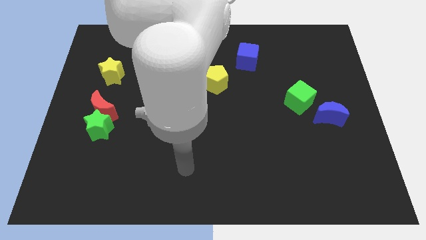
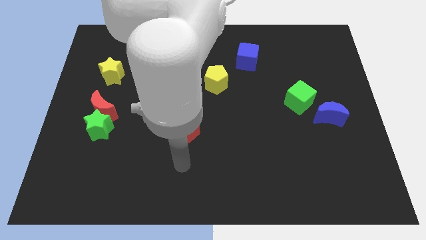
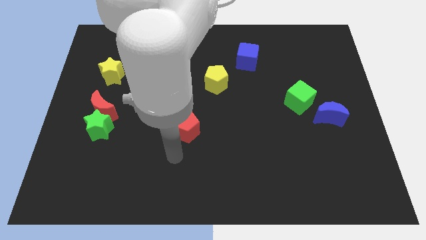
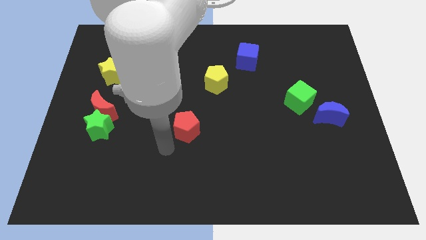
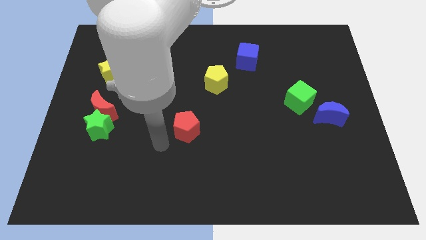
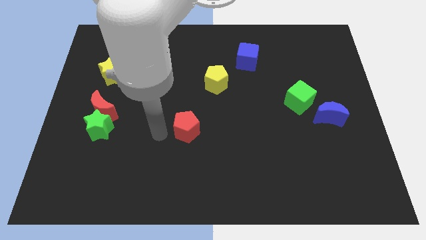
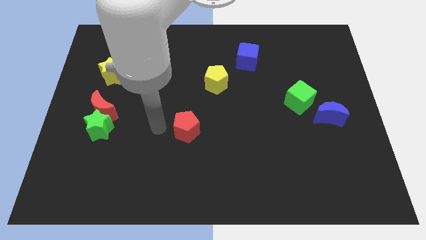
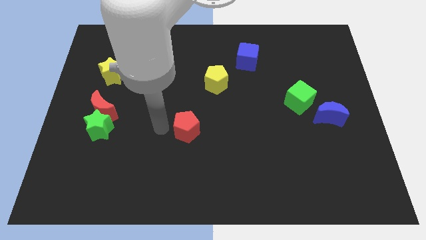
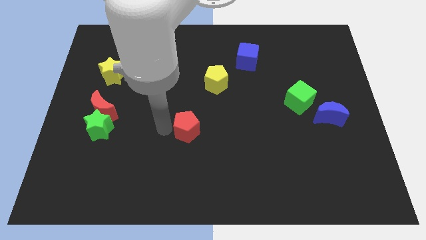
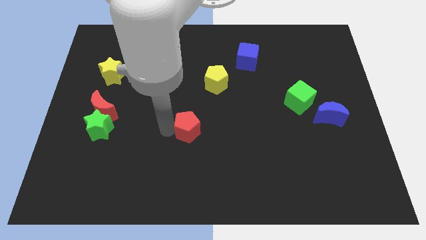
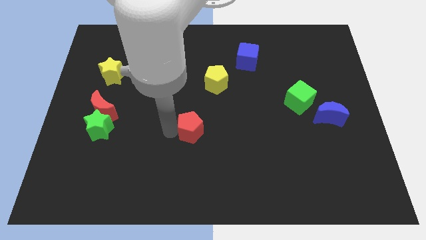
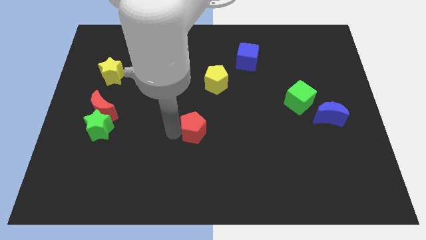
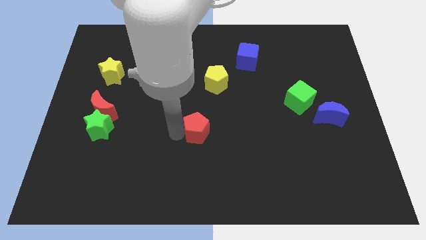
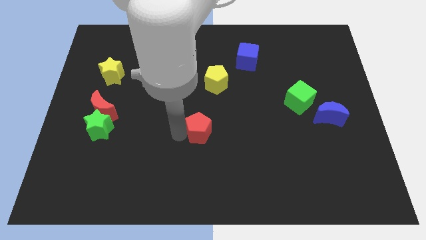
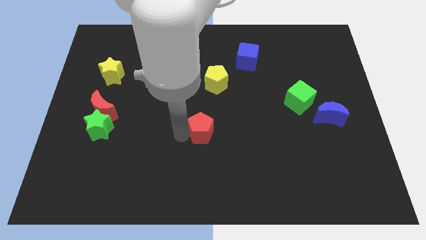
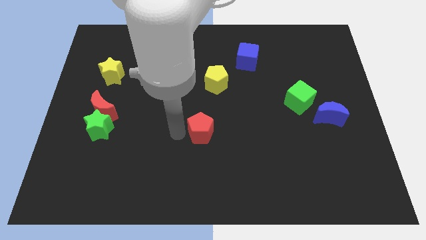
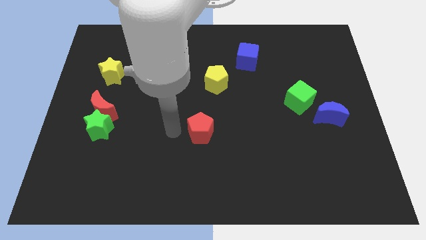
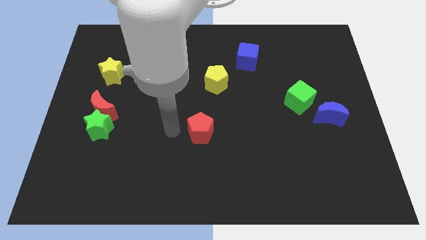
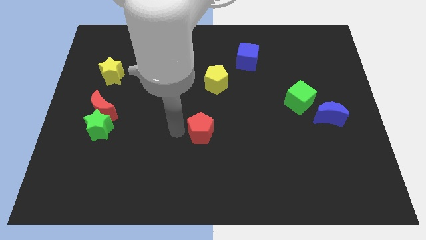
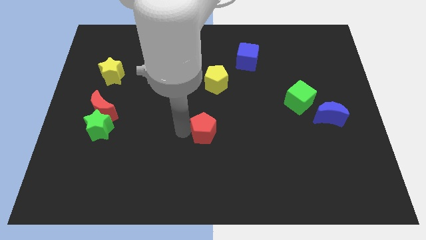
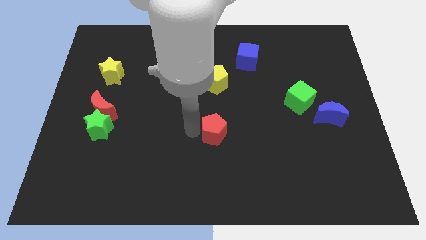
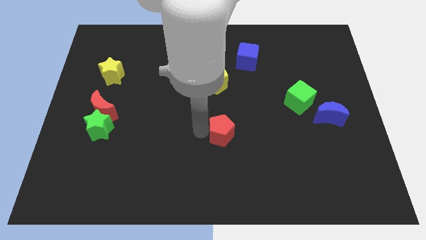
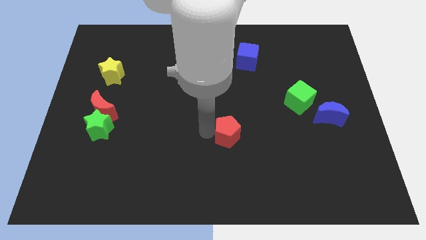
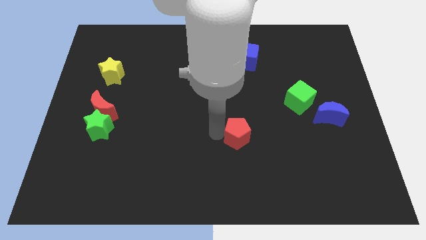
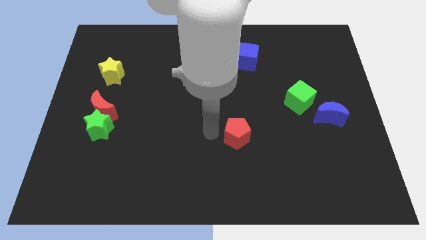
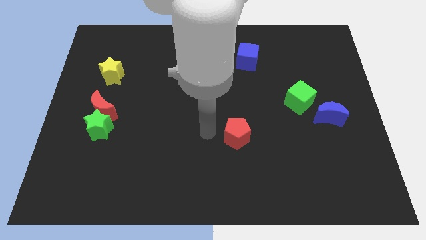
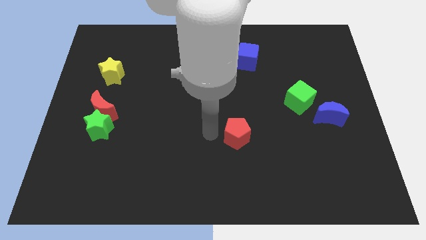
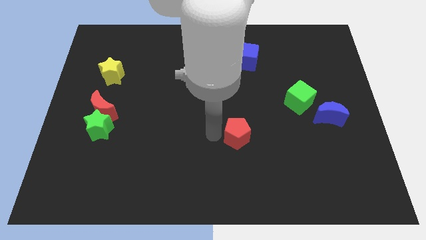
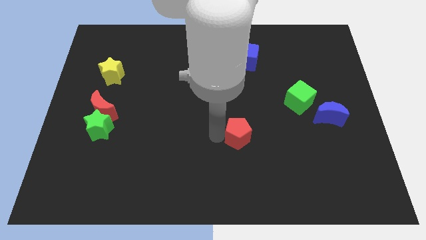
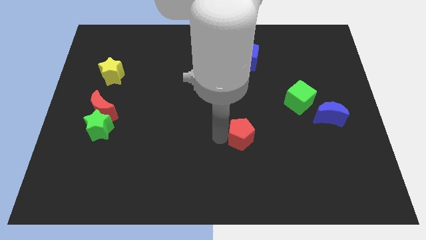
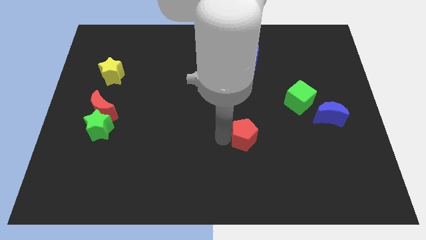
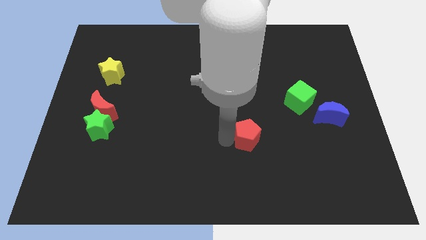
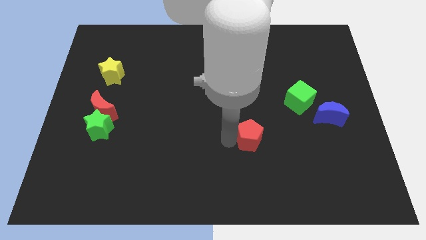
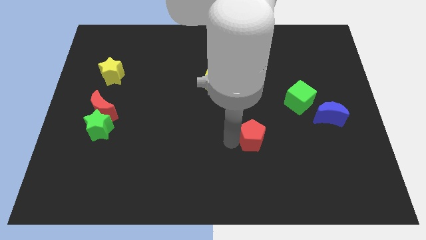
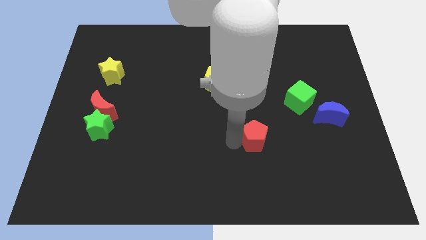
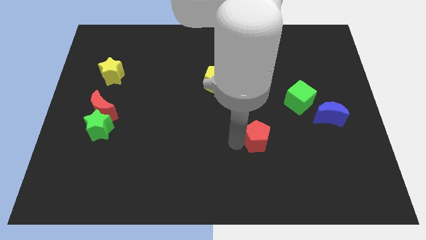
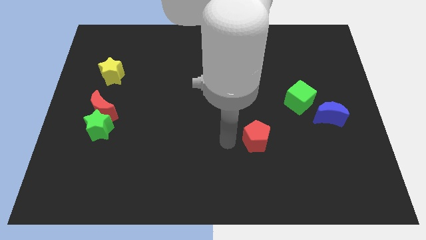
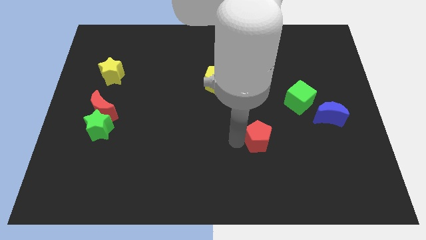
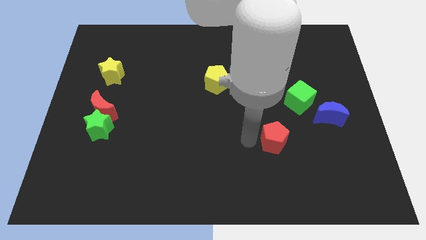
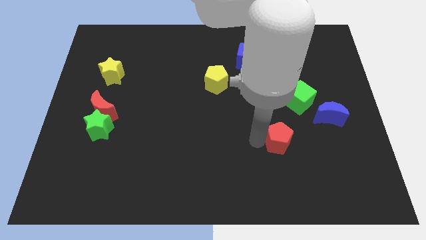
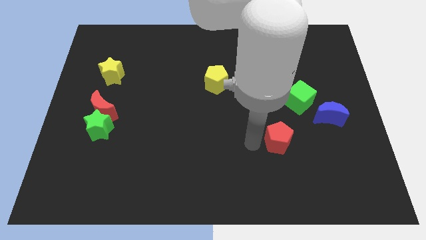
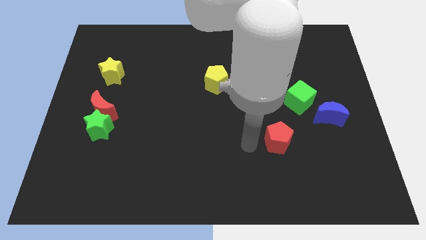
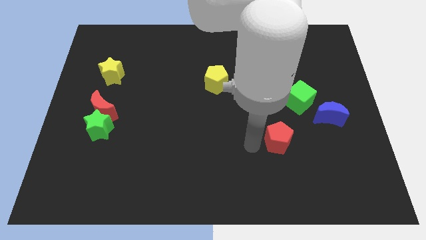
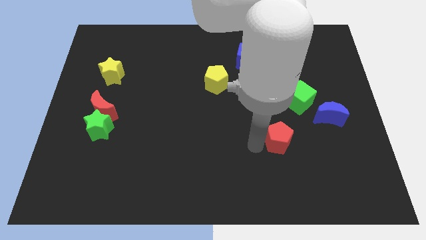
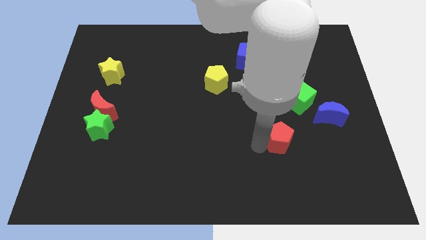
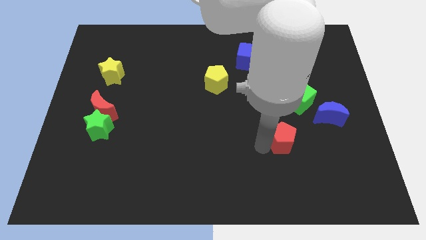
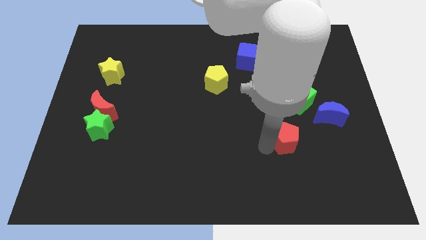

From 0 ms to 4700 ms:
move the red pentagon to the bottom of the green cube

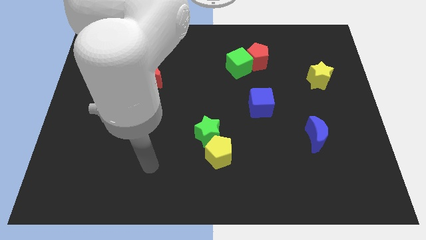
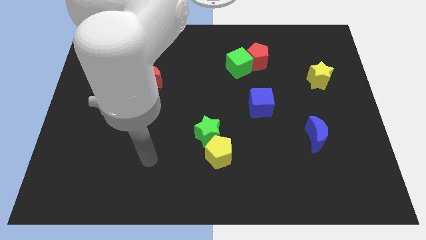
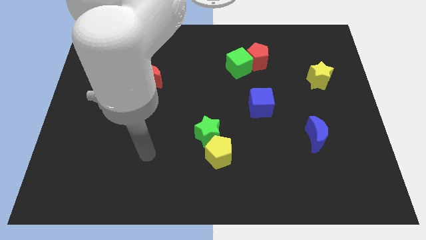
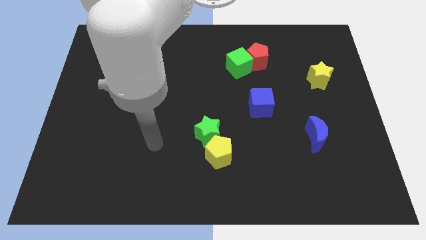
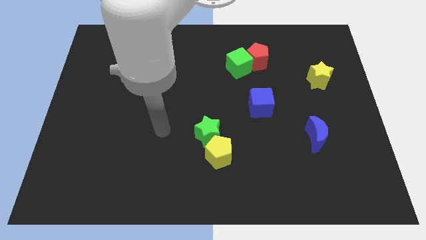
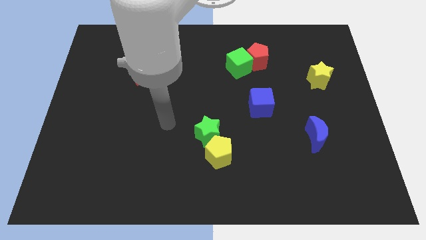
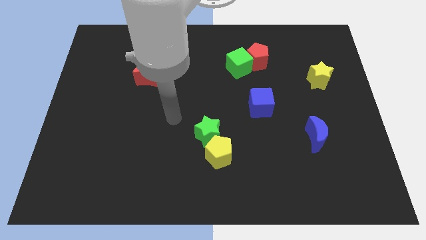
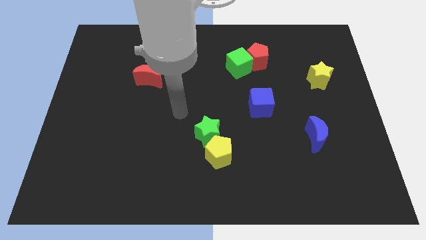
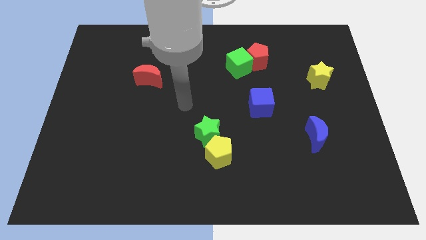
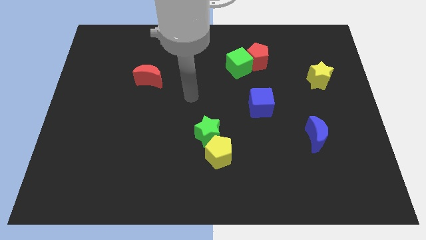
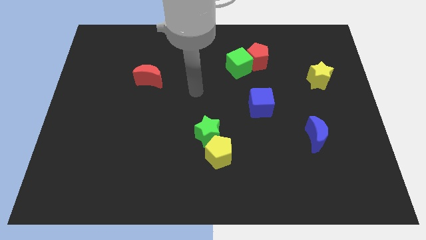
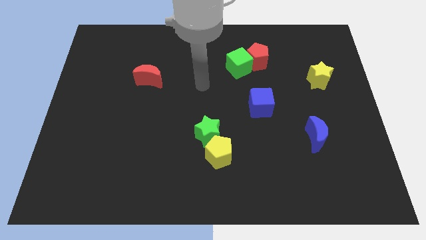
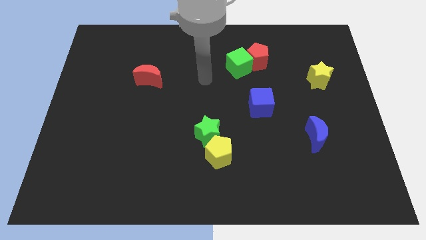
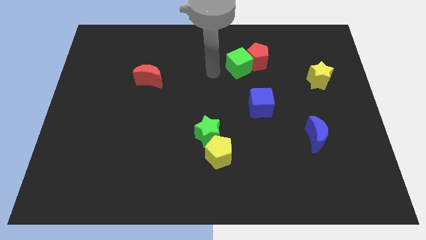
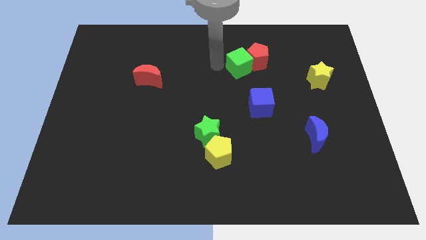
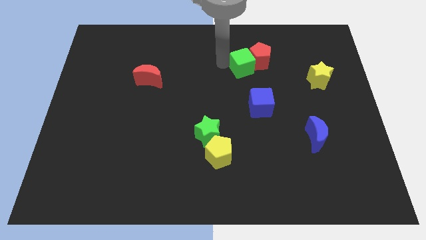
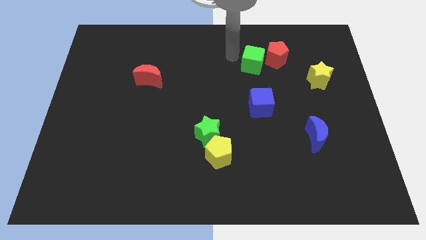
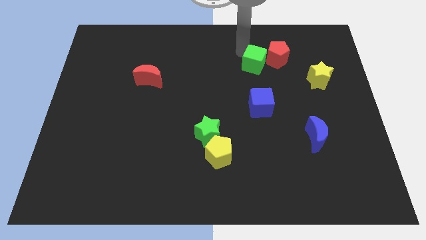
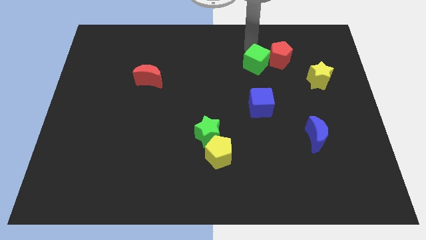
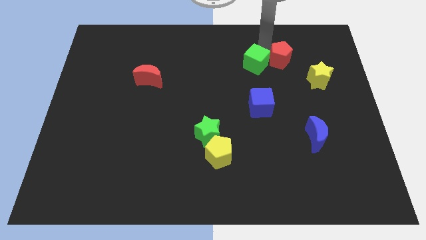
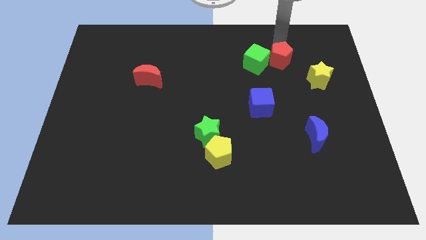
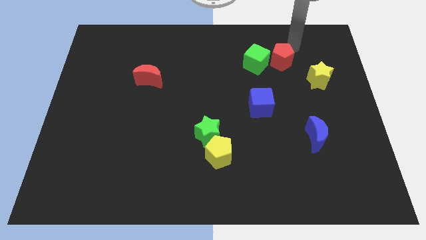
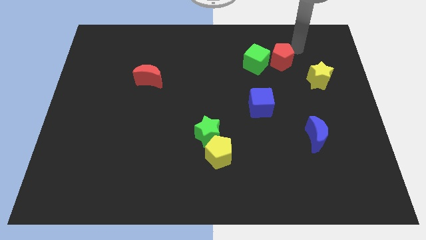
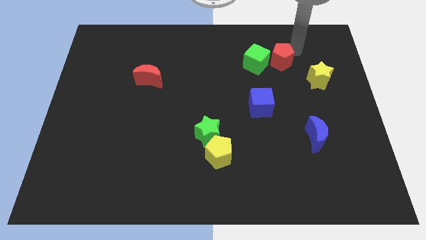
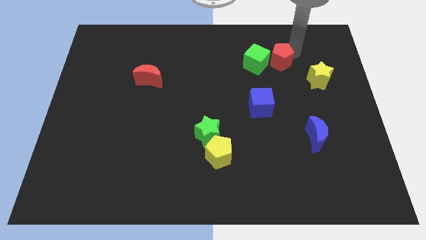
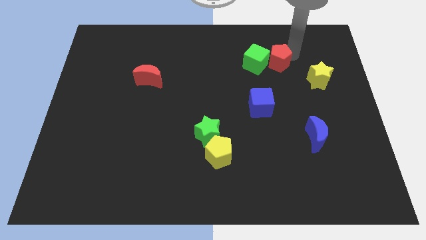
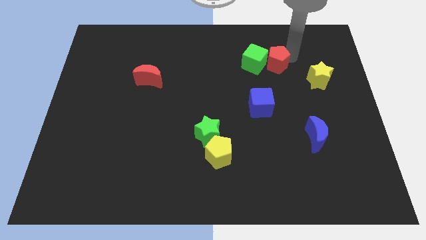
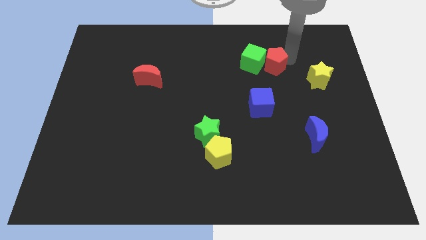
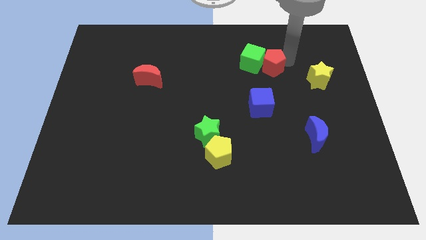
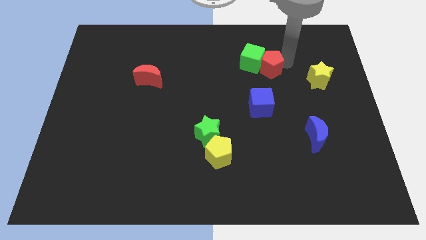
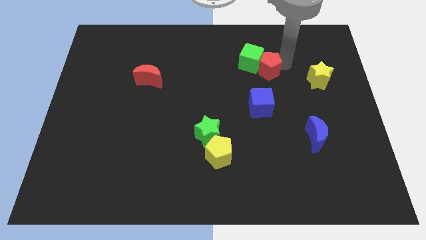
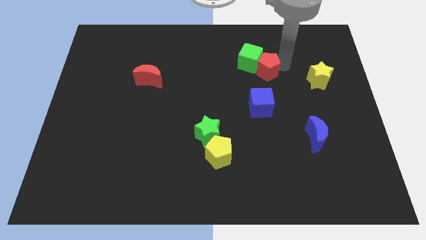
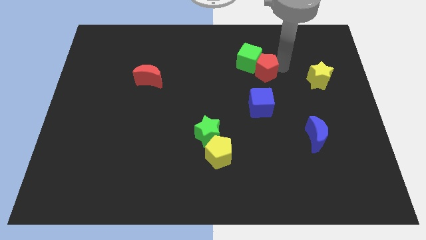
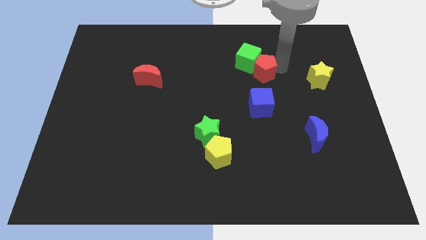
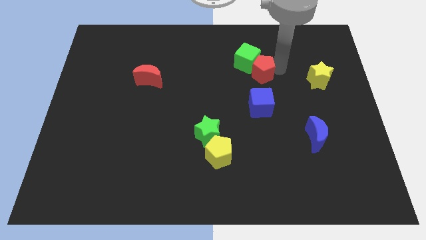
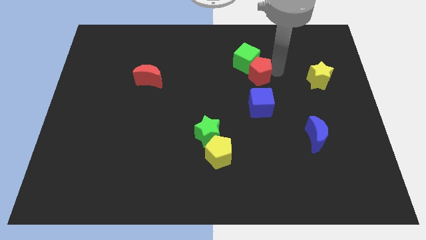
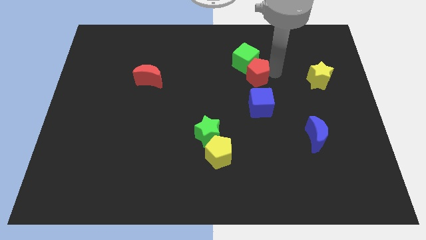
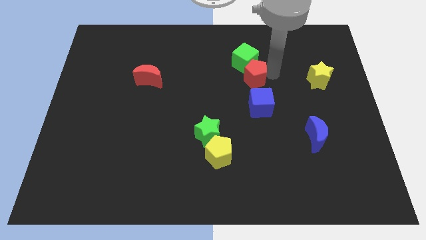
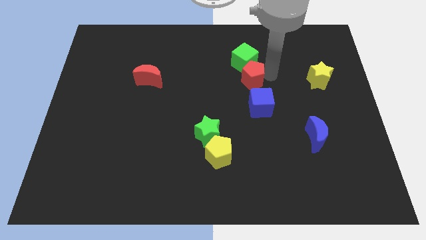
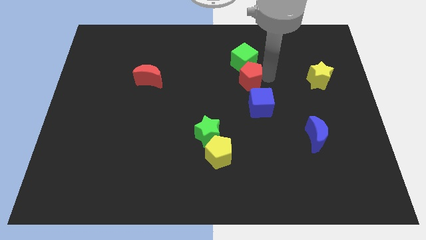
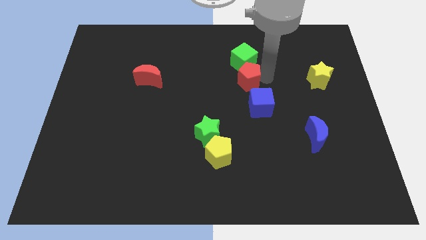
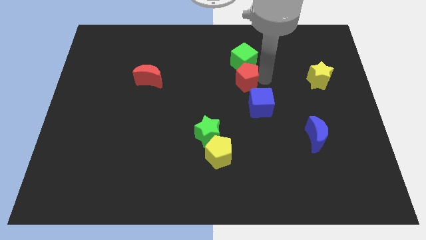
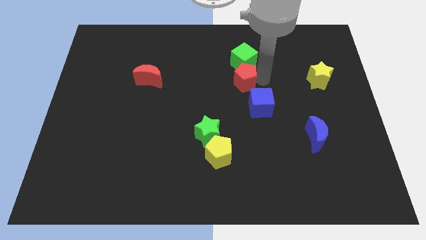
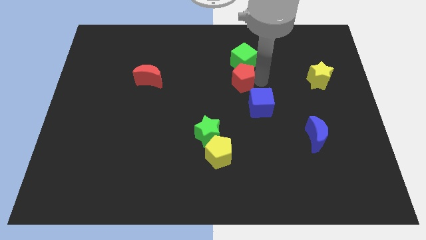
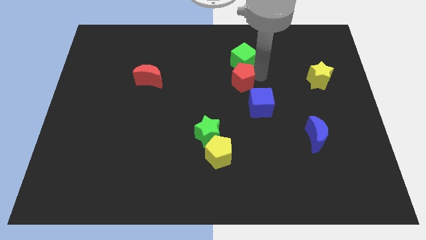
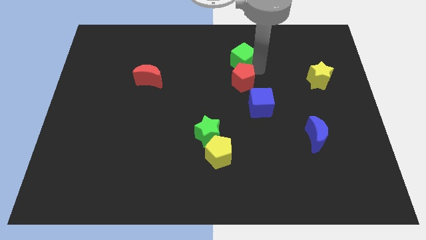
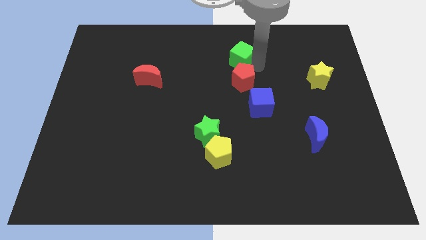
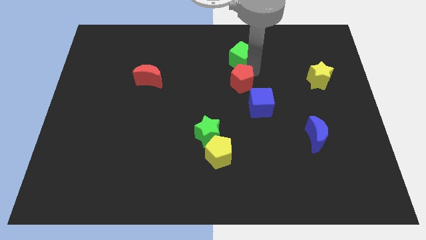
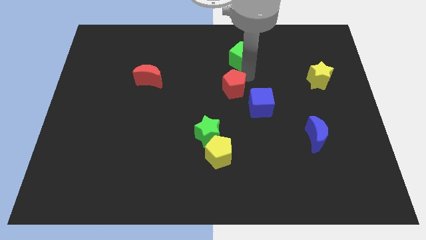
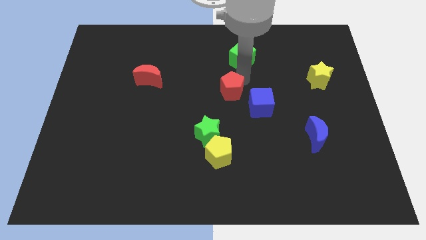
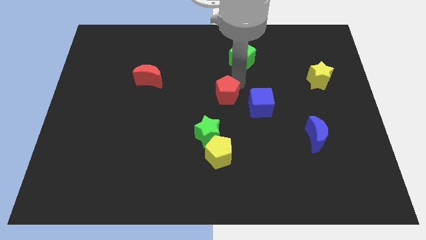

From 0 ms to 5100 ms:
put the red pentagon just left of the blue cube
